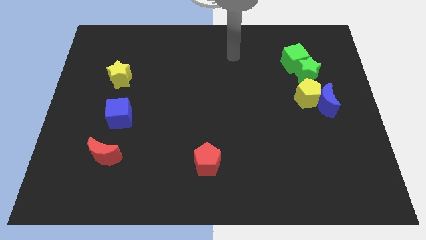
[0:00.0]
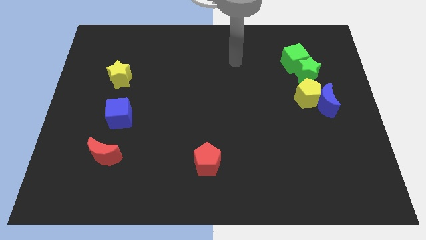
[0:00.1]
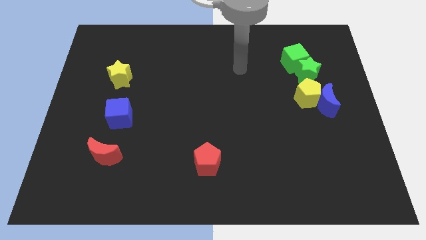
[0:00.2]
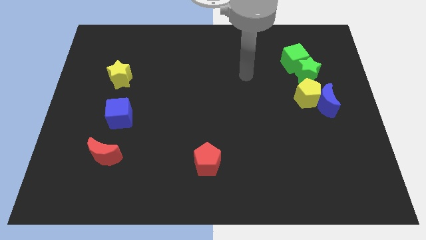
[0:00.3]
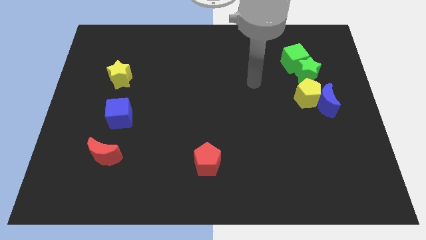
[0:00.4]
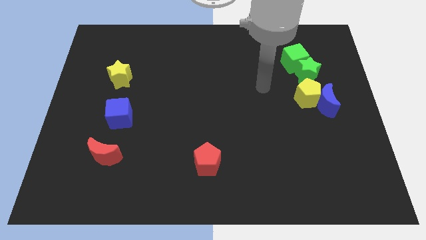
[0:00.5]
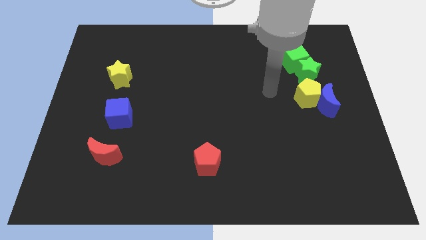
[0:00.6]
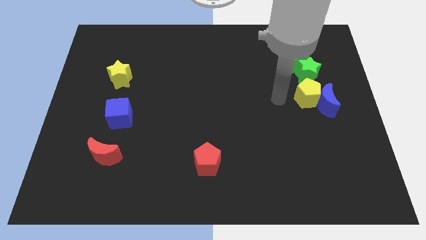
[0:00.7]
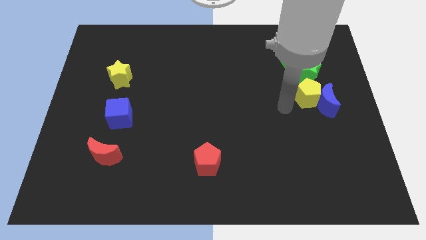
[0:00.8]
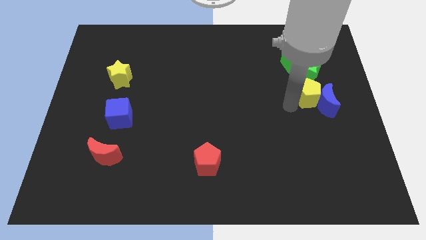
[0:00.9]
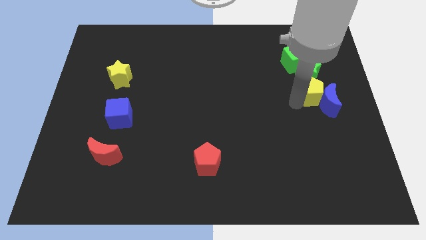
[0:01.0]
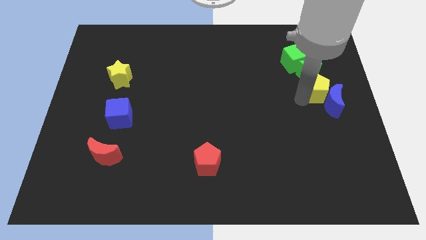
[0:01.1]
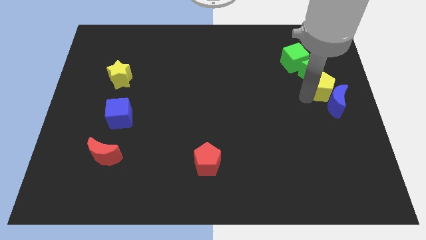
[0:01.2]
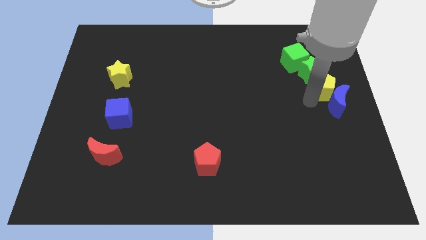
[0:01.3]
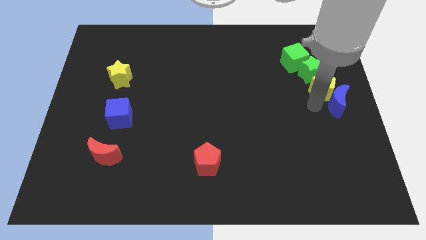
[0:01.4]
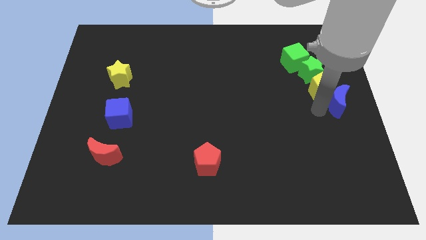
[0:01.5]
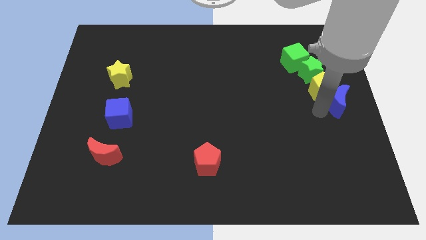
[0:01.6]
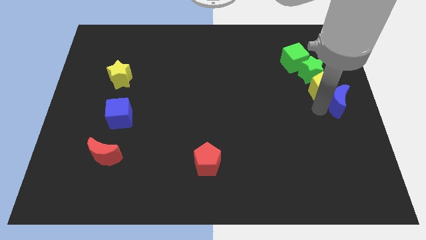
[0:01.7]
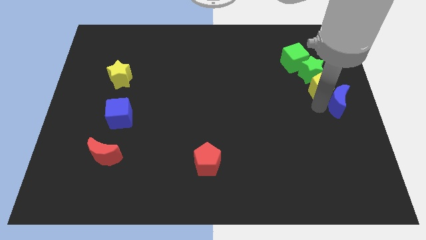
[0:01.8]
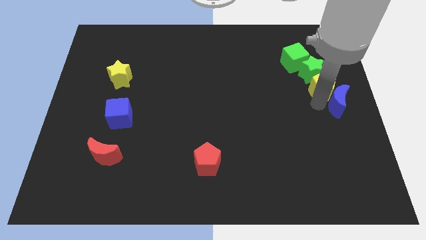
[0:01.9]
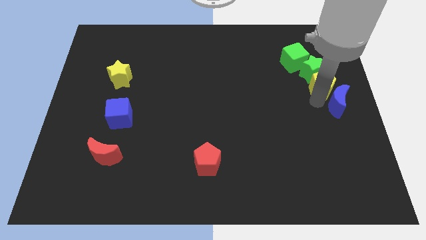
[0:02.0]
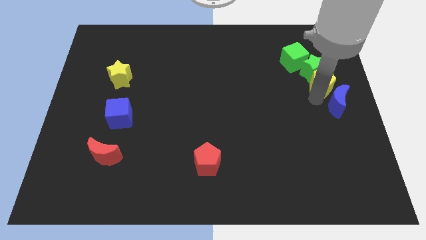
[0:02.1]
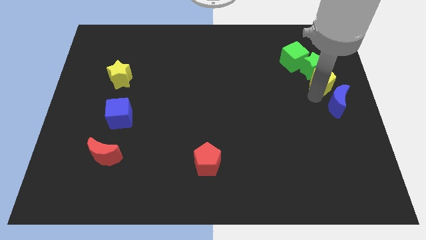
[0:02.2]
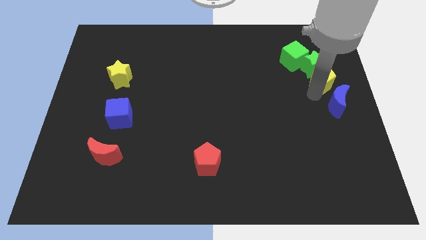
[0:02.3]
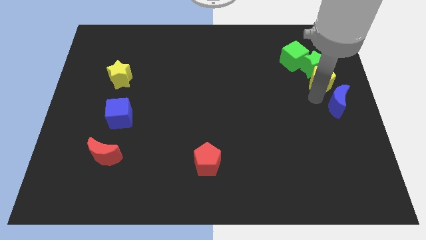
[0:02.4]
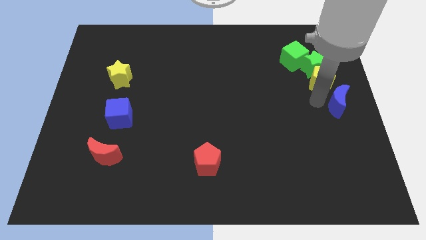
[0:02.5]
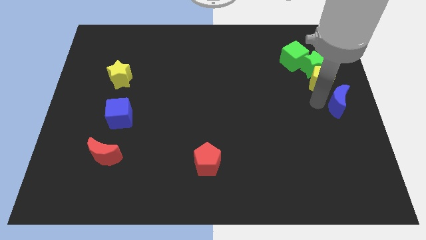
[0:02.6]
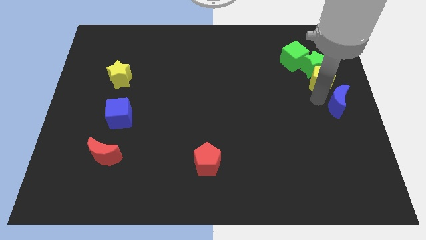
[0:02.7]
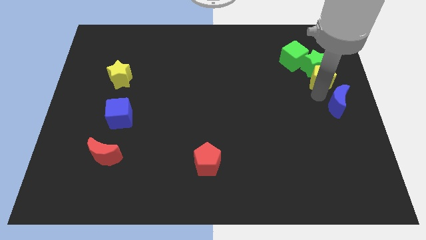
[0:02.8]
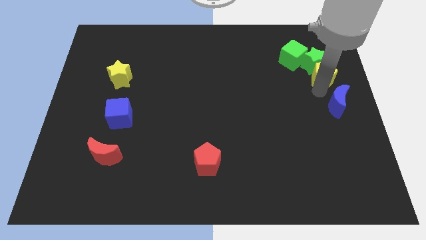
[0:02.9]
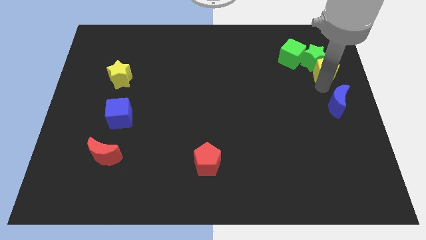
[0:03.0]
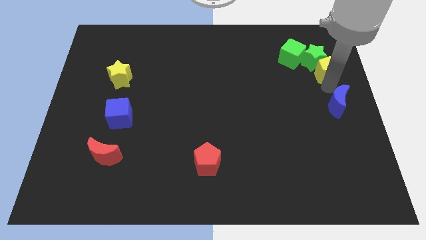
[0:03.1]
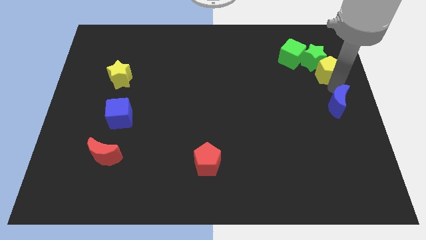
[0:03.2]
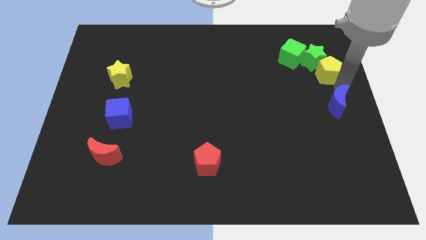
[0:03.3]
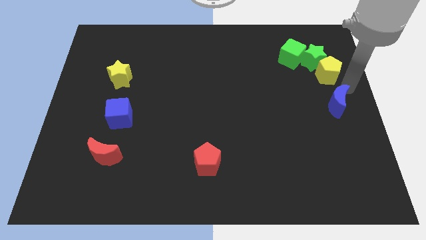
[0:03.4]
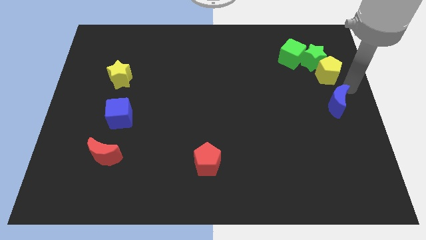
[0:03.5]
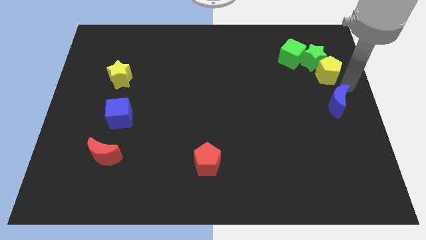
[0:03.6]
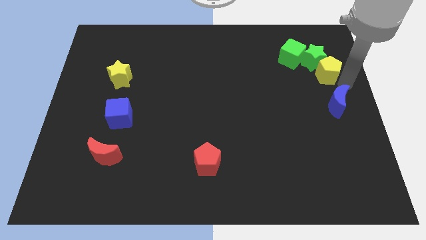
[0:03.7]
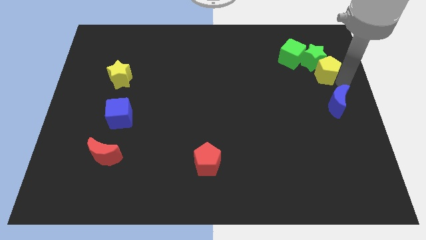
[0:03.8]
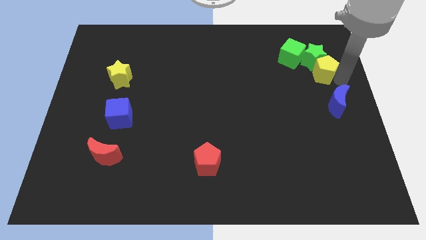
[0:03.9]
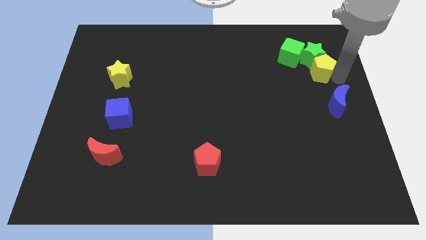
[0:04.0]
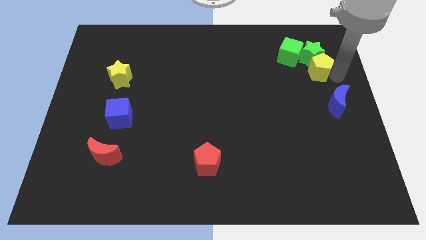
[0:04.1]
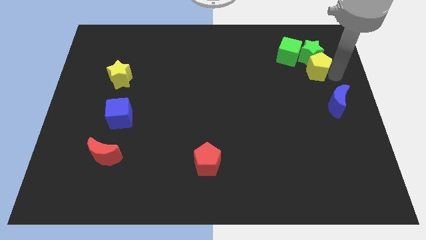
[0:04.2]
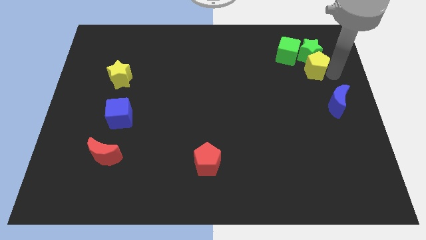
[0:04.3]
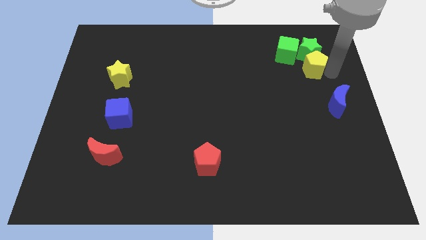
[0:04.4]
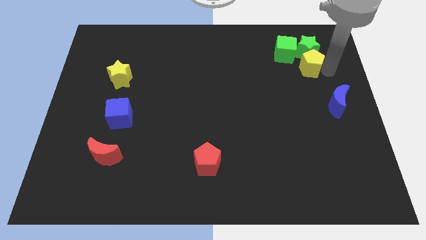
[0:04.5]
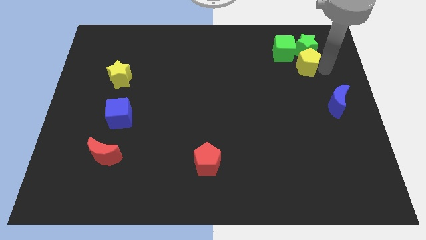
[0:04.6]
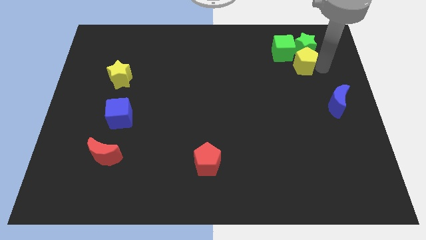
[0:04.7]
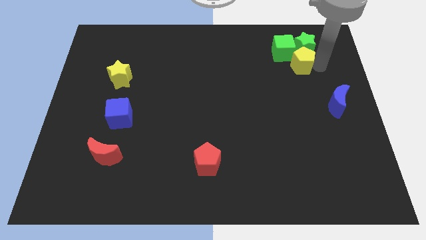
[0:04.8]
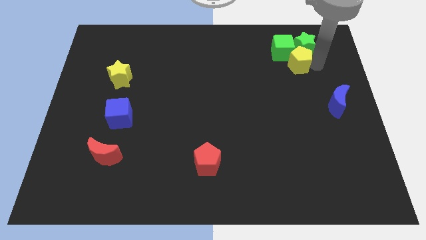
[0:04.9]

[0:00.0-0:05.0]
put the yellow pentagon to the green cube

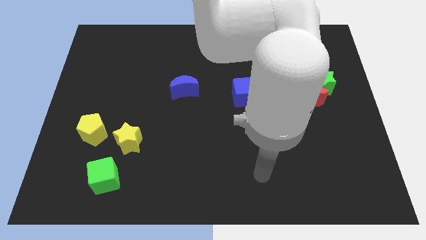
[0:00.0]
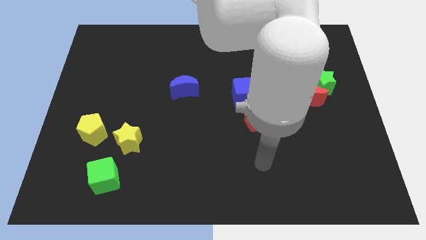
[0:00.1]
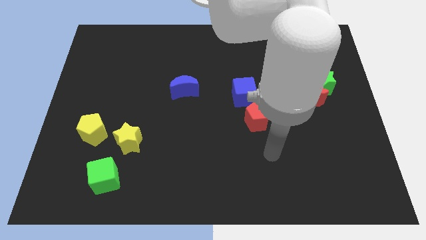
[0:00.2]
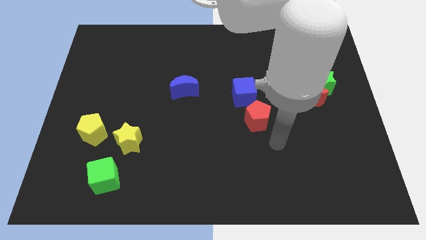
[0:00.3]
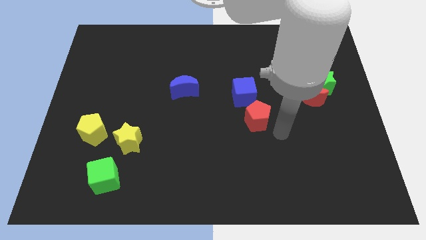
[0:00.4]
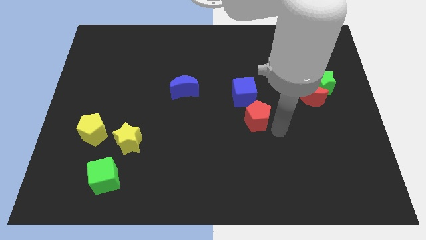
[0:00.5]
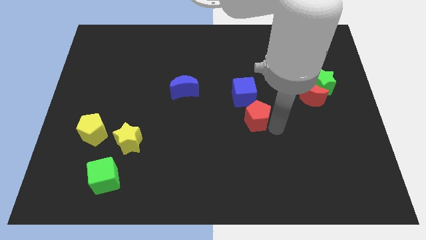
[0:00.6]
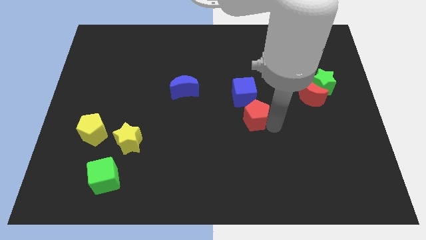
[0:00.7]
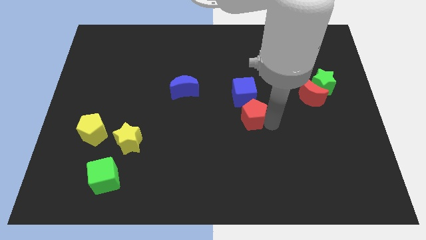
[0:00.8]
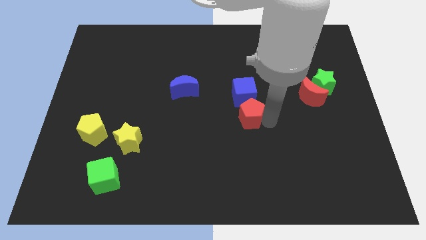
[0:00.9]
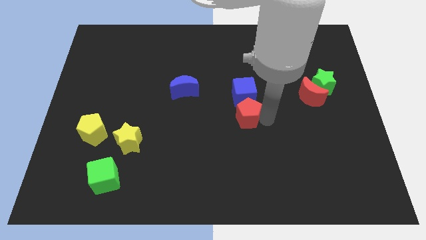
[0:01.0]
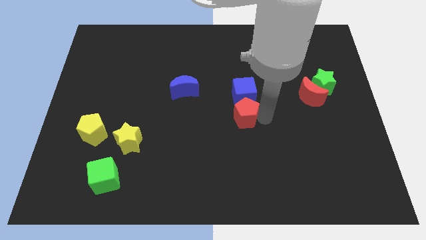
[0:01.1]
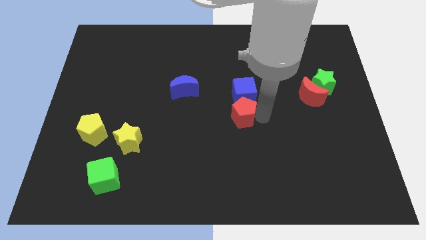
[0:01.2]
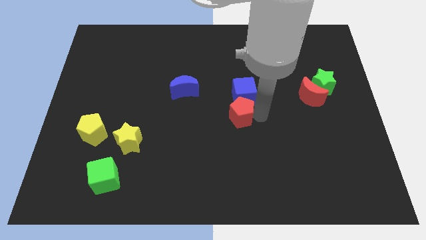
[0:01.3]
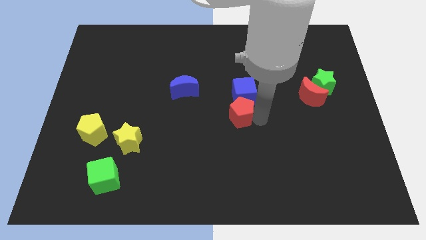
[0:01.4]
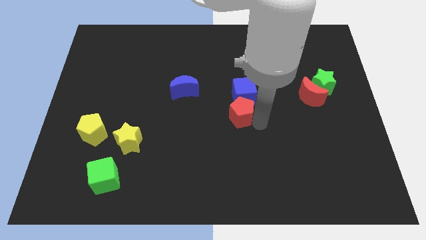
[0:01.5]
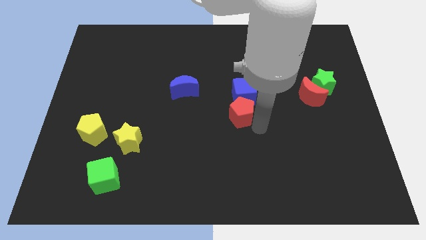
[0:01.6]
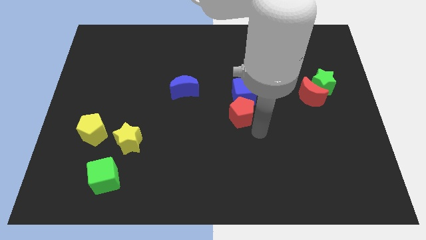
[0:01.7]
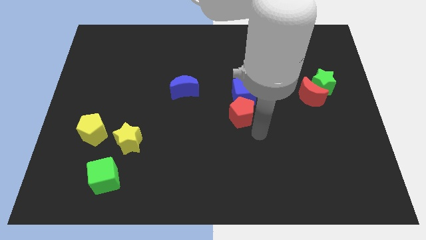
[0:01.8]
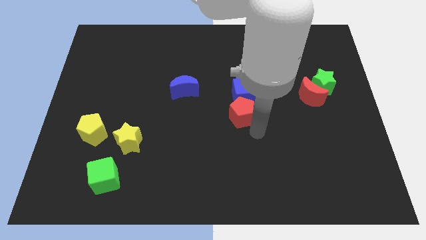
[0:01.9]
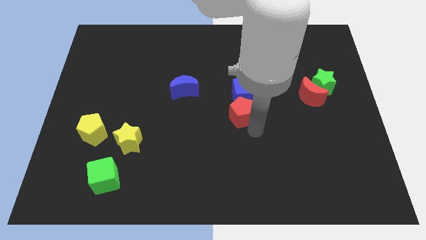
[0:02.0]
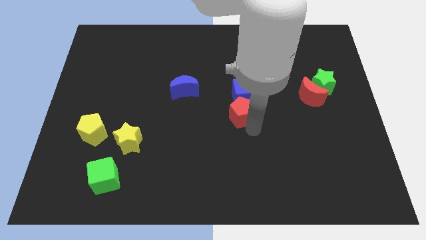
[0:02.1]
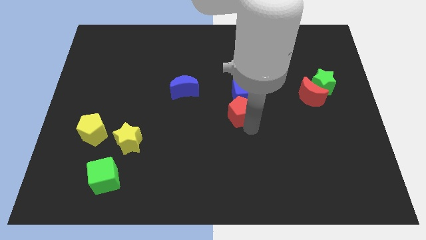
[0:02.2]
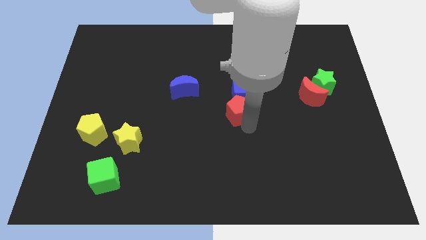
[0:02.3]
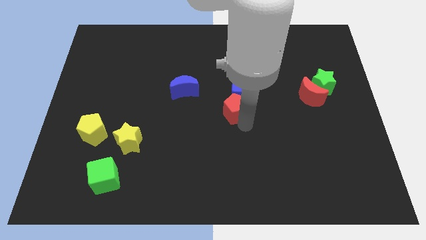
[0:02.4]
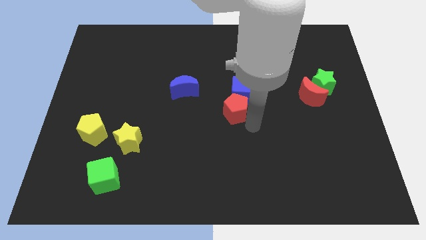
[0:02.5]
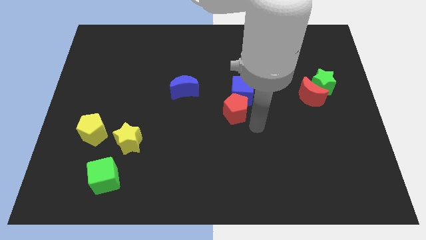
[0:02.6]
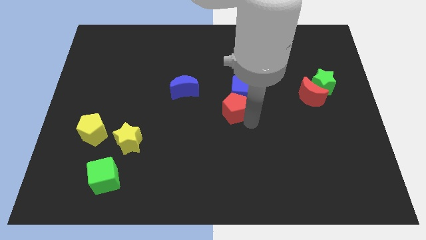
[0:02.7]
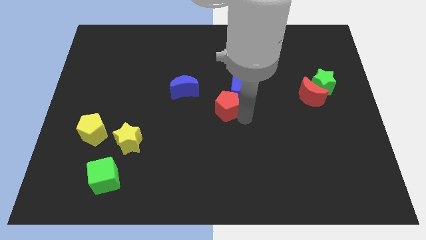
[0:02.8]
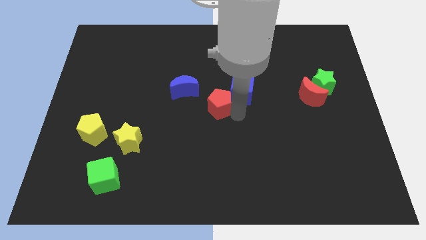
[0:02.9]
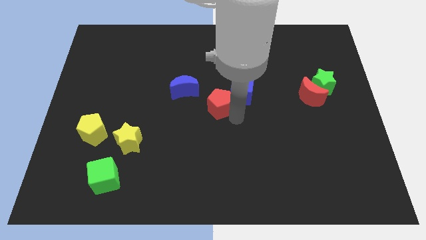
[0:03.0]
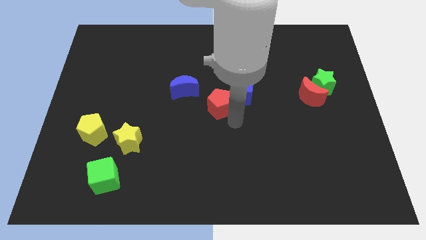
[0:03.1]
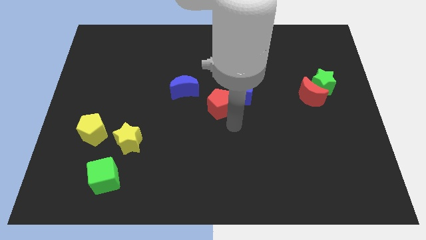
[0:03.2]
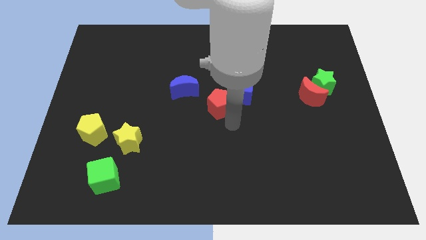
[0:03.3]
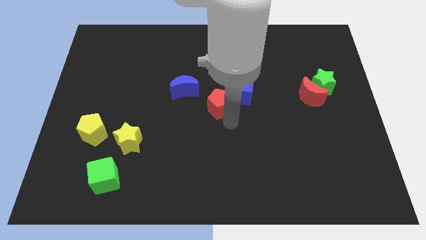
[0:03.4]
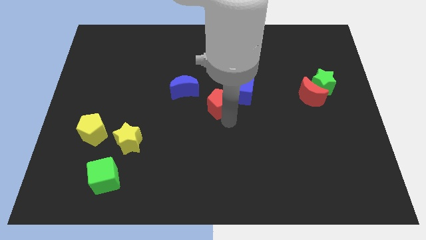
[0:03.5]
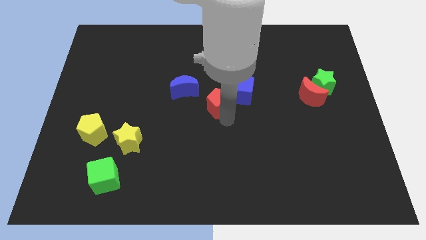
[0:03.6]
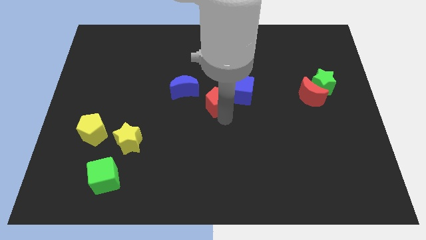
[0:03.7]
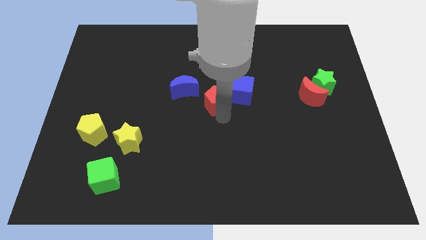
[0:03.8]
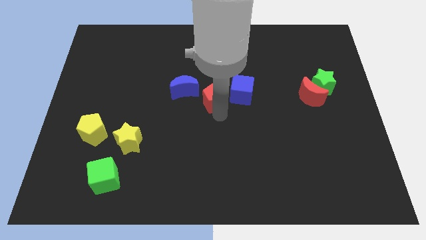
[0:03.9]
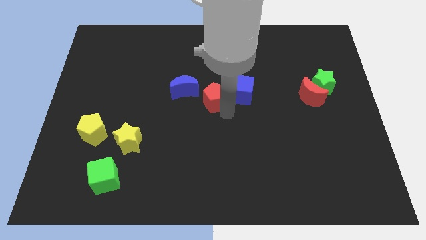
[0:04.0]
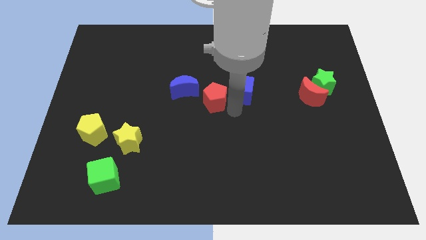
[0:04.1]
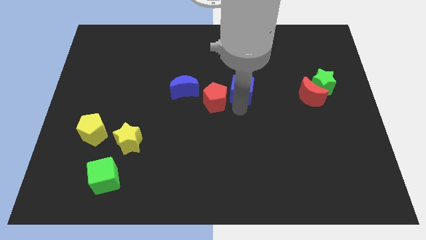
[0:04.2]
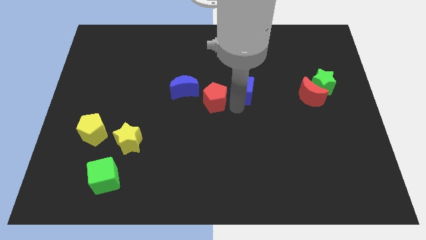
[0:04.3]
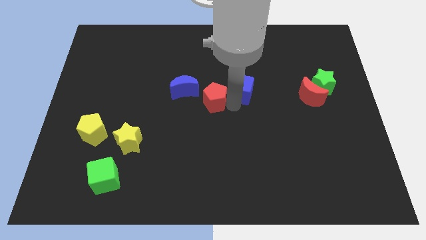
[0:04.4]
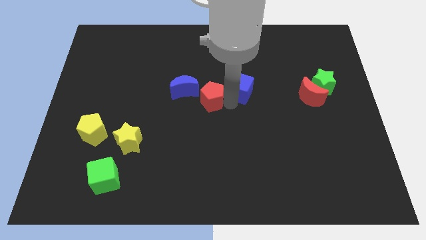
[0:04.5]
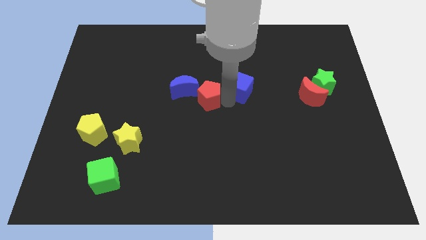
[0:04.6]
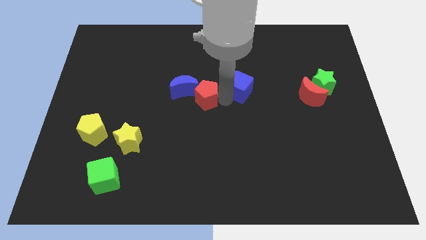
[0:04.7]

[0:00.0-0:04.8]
push the red pentagon next to the blue moon
